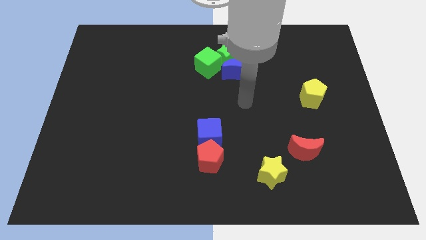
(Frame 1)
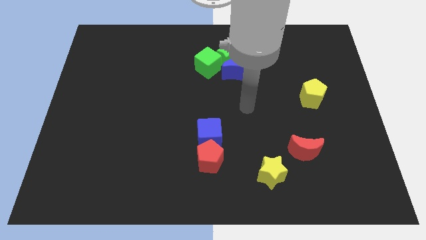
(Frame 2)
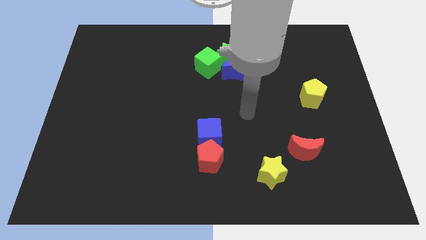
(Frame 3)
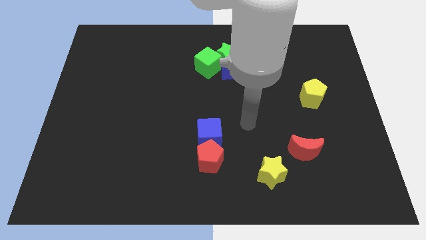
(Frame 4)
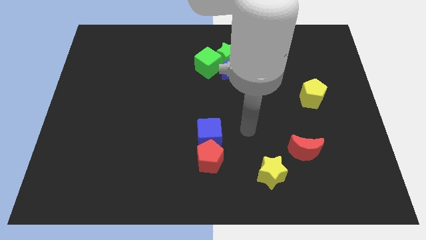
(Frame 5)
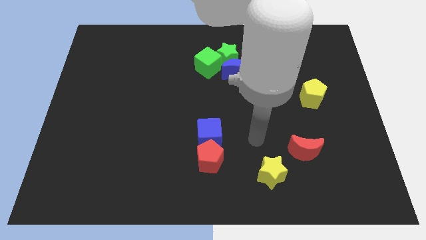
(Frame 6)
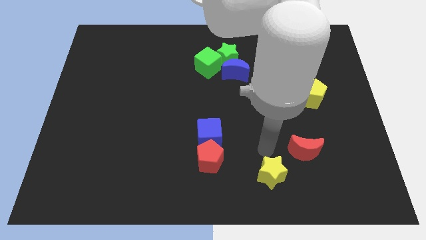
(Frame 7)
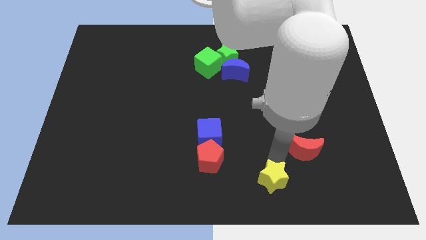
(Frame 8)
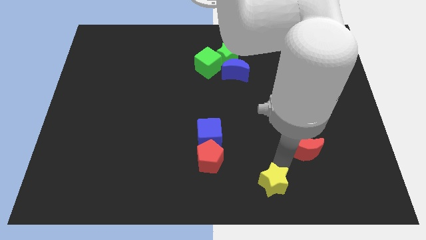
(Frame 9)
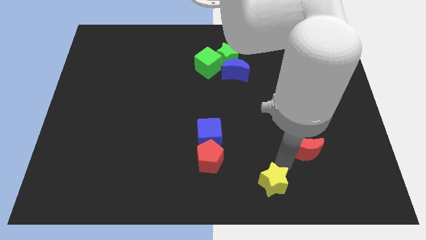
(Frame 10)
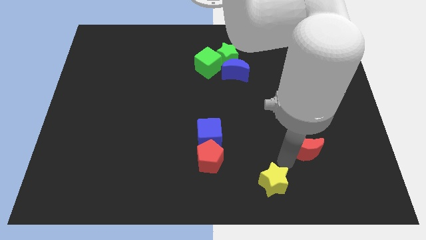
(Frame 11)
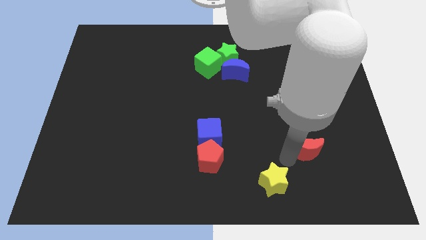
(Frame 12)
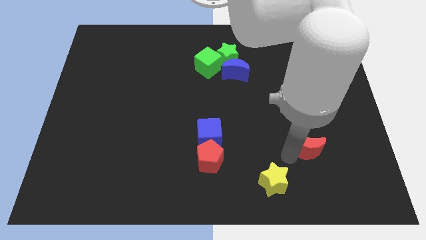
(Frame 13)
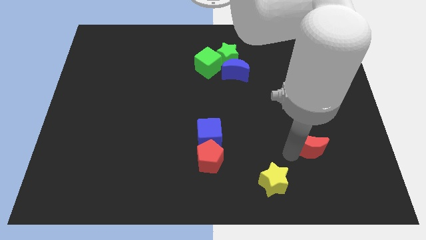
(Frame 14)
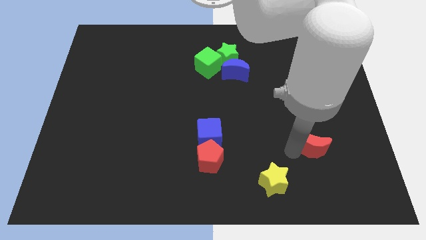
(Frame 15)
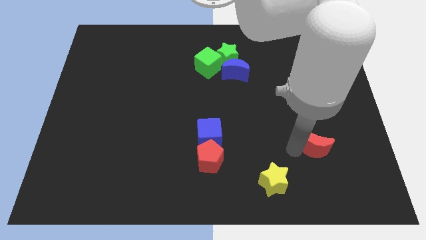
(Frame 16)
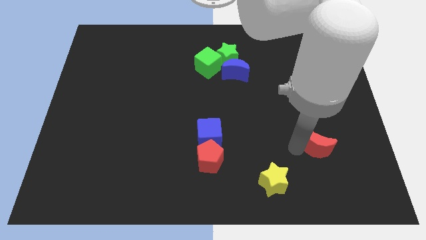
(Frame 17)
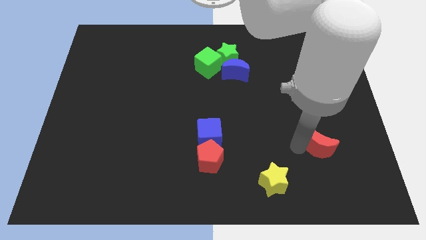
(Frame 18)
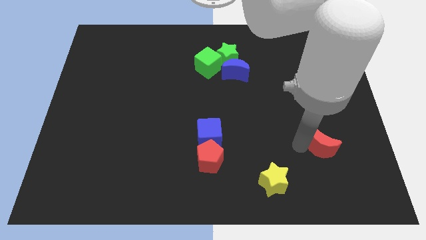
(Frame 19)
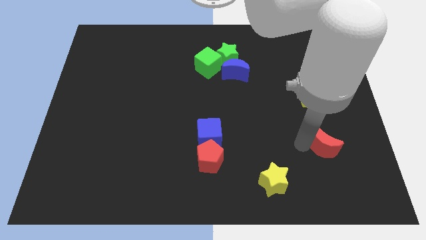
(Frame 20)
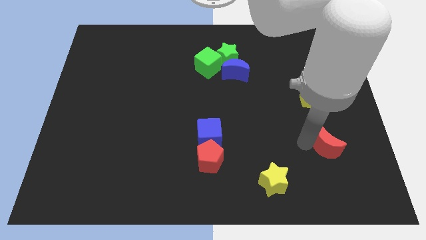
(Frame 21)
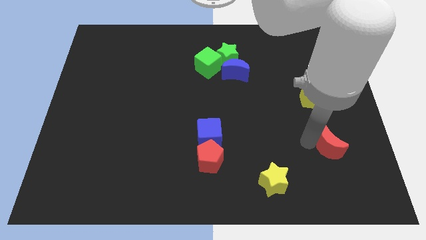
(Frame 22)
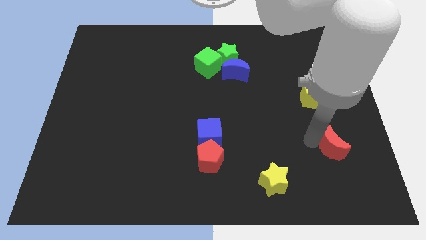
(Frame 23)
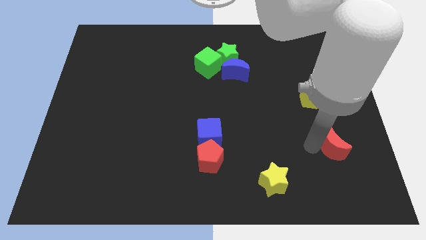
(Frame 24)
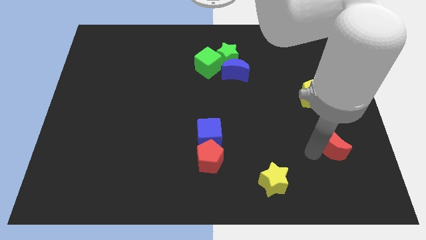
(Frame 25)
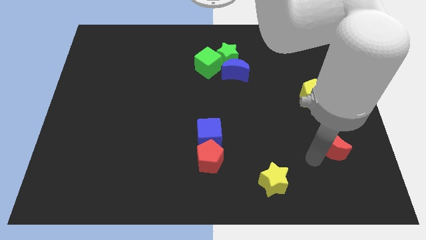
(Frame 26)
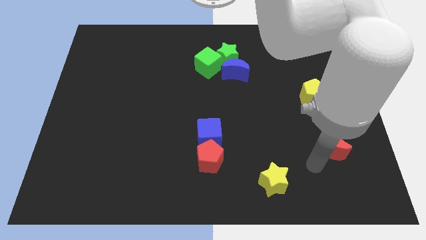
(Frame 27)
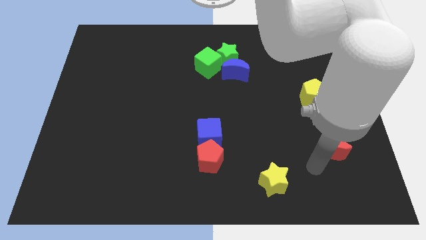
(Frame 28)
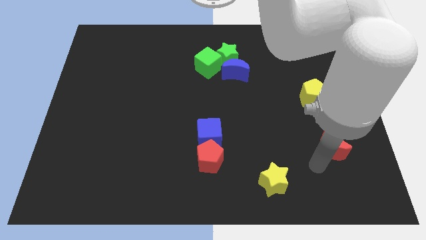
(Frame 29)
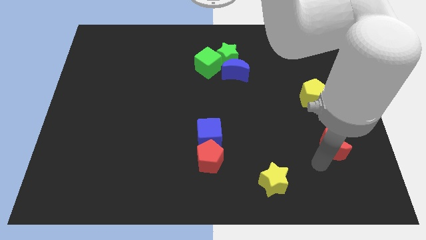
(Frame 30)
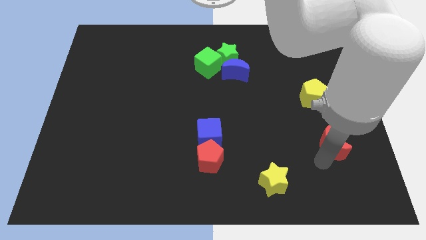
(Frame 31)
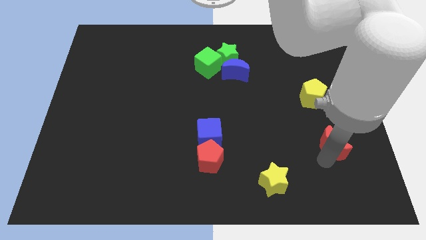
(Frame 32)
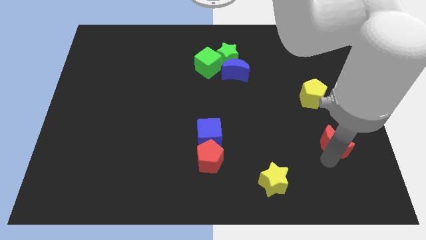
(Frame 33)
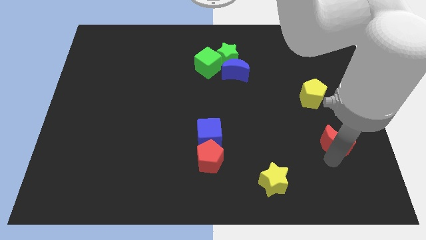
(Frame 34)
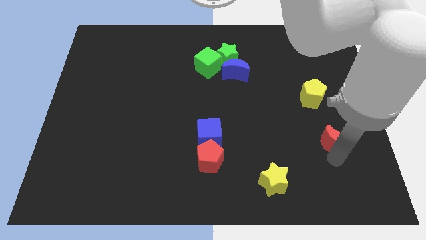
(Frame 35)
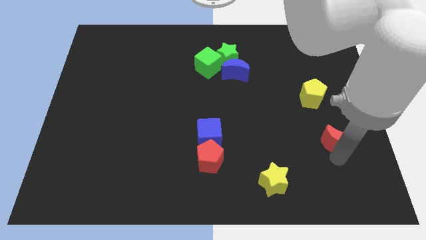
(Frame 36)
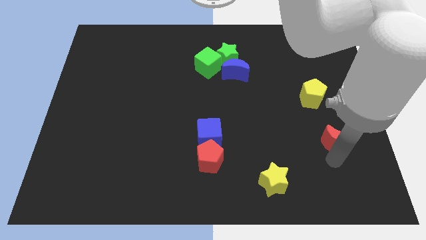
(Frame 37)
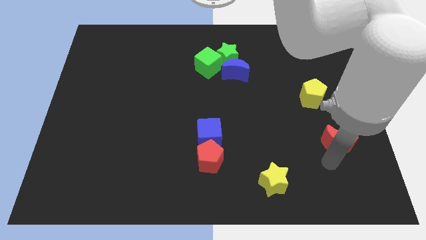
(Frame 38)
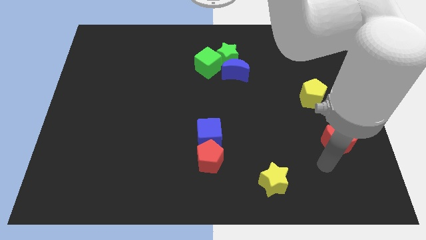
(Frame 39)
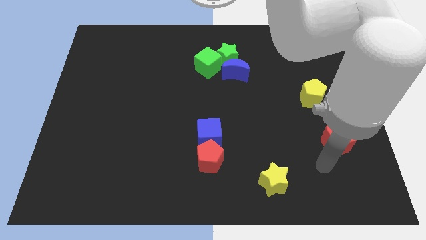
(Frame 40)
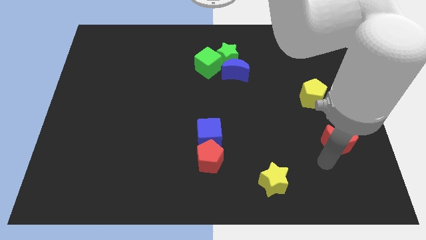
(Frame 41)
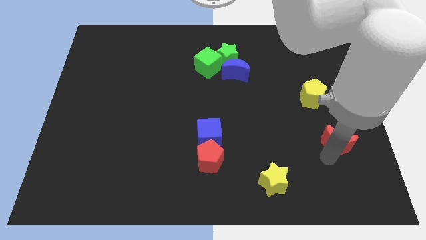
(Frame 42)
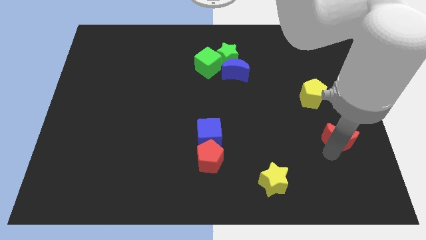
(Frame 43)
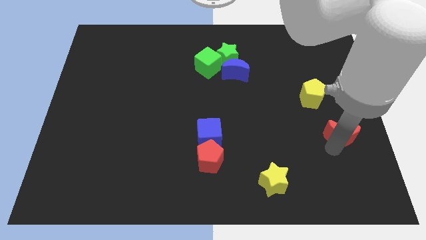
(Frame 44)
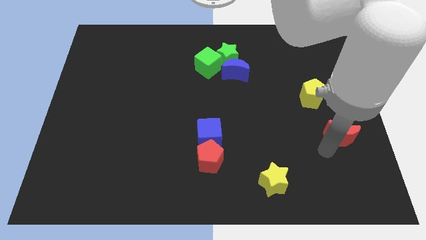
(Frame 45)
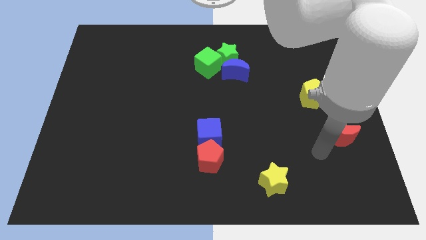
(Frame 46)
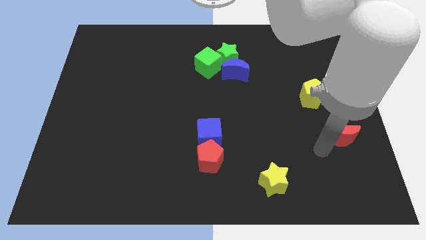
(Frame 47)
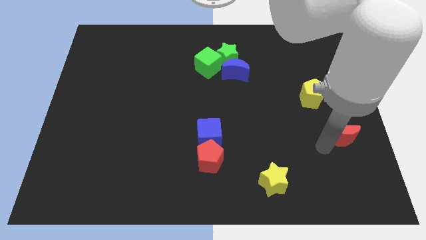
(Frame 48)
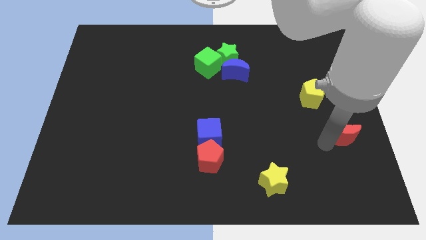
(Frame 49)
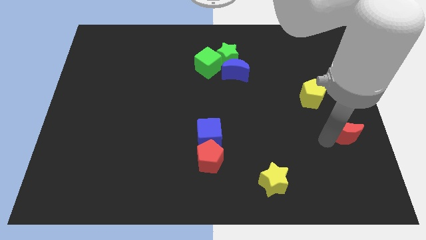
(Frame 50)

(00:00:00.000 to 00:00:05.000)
slide the red moon to the center right

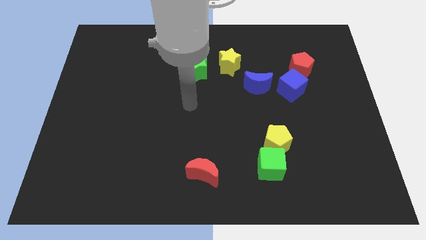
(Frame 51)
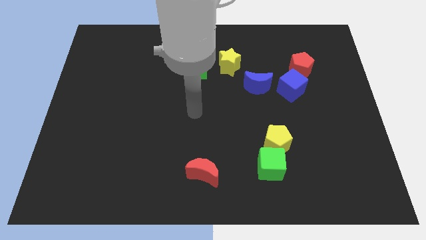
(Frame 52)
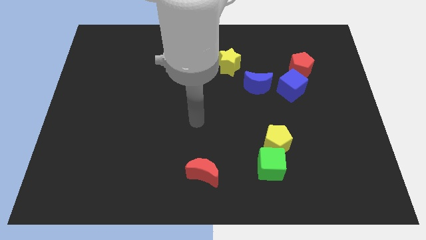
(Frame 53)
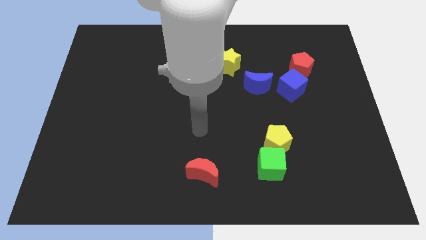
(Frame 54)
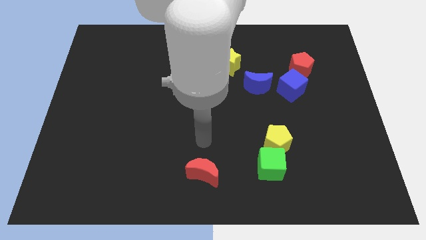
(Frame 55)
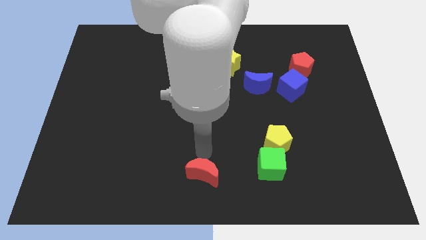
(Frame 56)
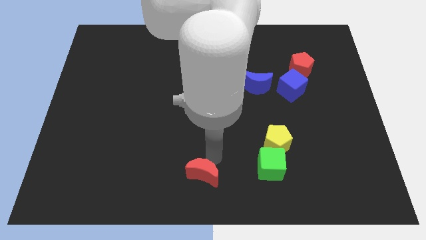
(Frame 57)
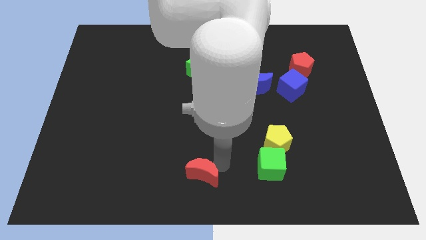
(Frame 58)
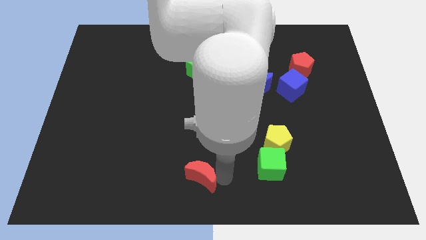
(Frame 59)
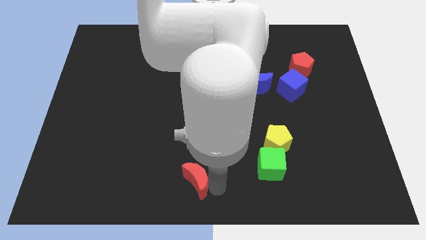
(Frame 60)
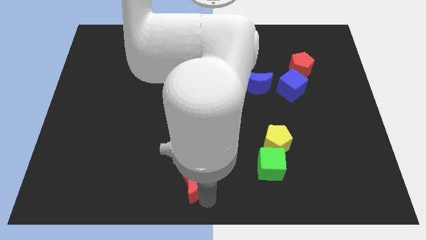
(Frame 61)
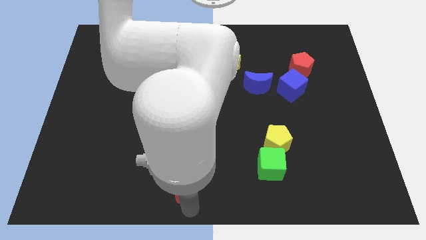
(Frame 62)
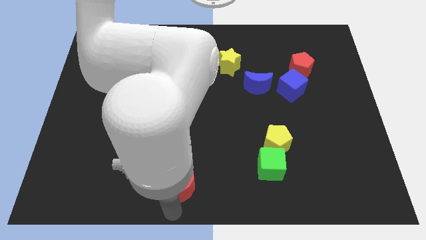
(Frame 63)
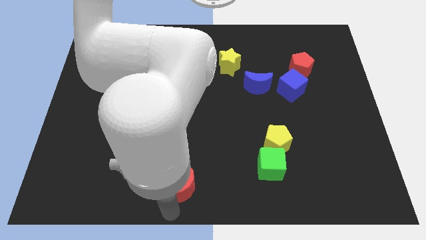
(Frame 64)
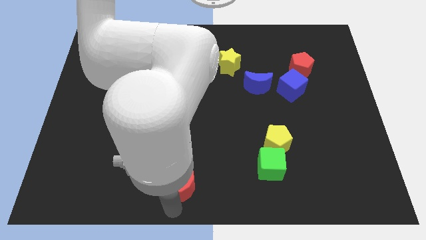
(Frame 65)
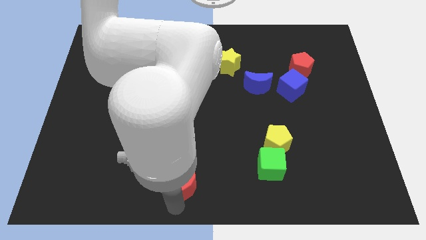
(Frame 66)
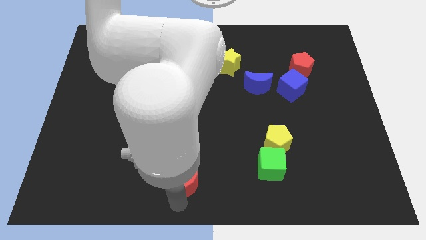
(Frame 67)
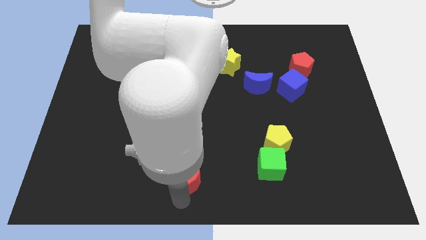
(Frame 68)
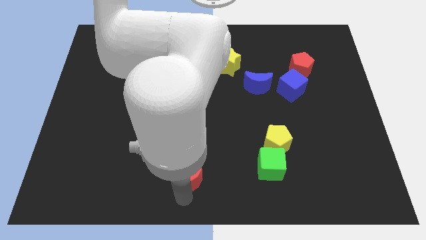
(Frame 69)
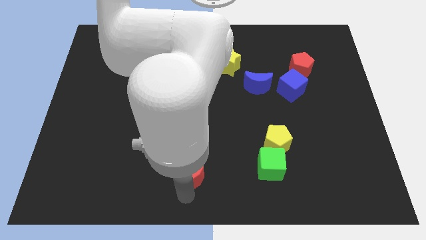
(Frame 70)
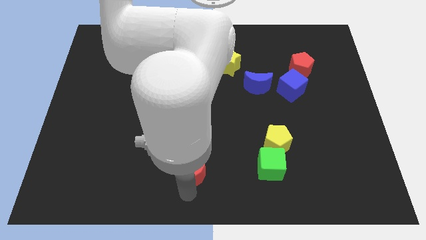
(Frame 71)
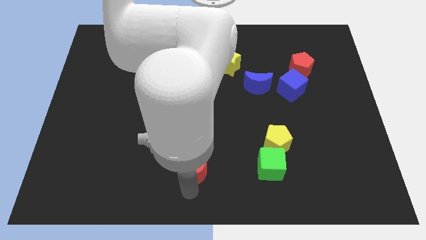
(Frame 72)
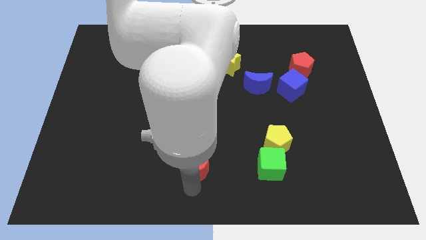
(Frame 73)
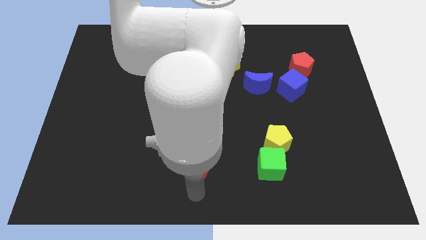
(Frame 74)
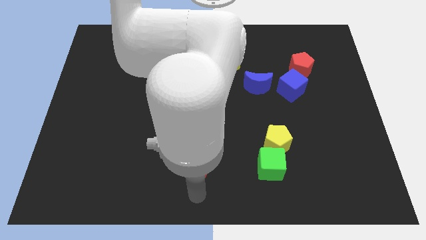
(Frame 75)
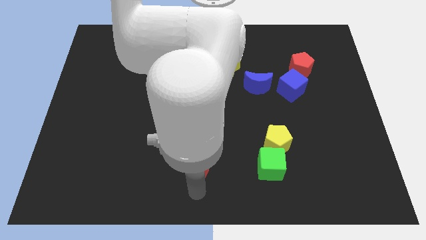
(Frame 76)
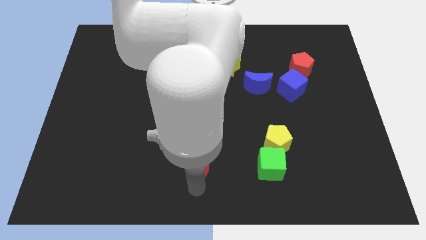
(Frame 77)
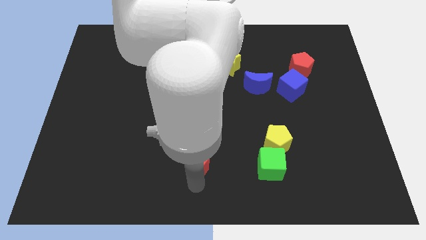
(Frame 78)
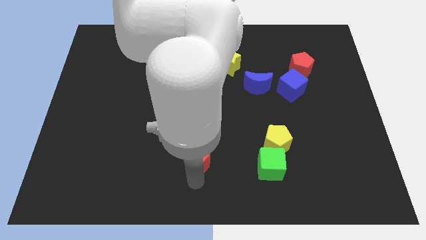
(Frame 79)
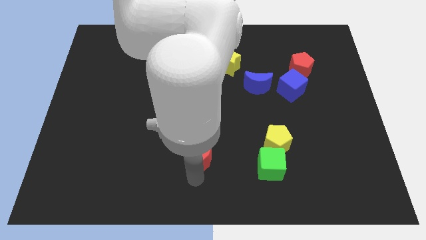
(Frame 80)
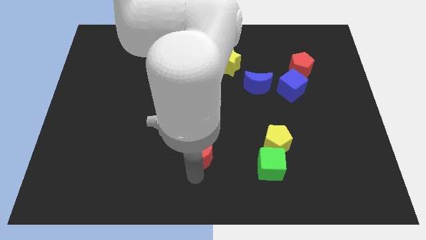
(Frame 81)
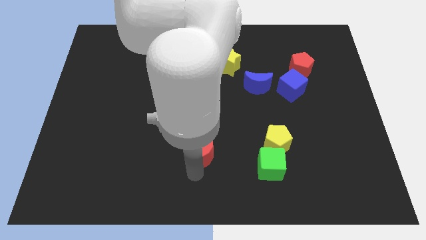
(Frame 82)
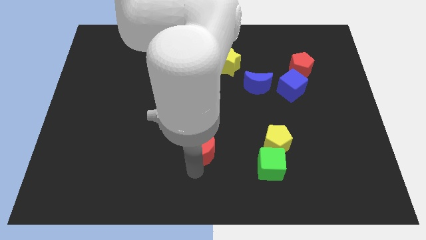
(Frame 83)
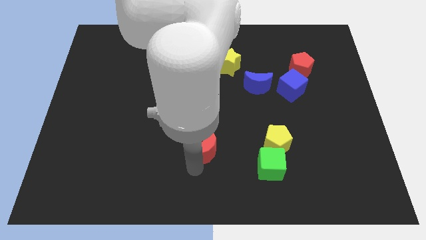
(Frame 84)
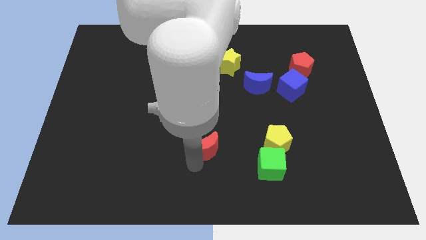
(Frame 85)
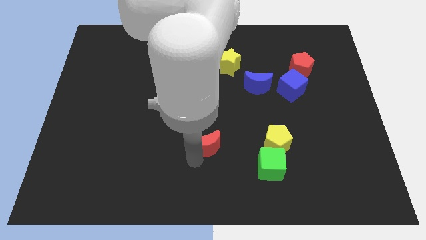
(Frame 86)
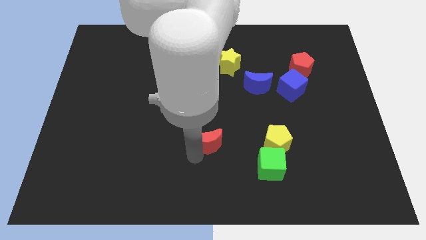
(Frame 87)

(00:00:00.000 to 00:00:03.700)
move the red moon to the middle of the board
